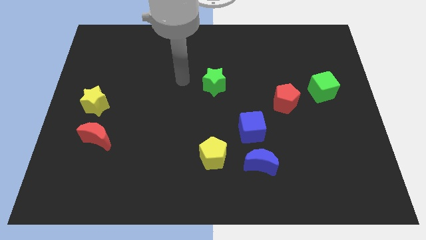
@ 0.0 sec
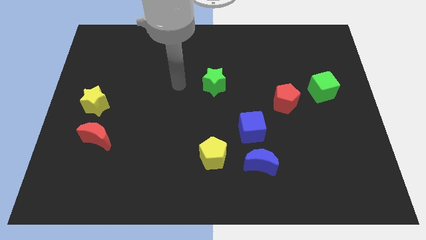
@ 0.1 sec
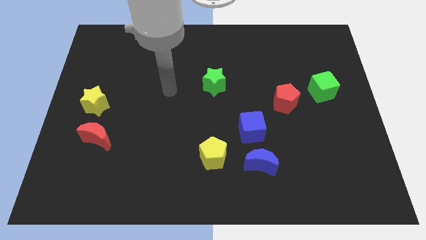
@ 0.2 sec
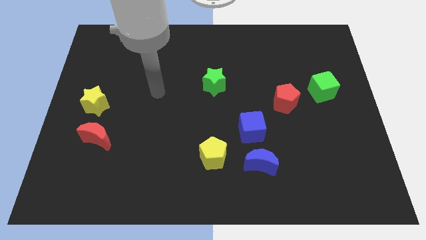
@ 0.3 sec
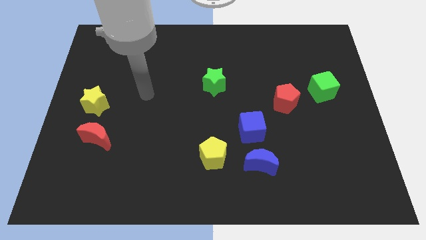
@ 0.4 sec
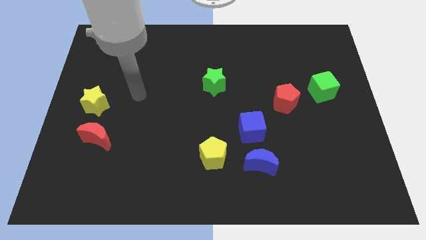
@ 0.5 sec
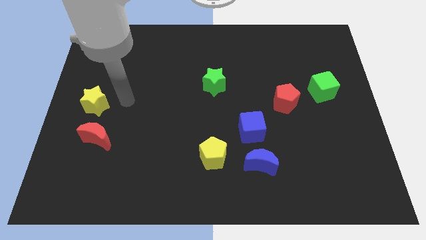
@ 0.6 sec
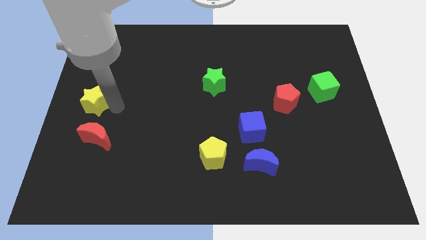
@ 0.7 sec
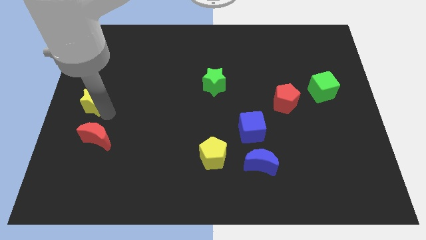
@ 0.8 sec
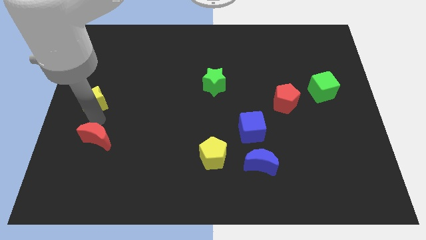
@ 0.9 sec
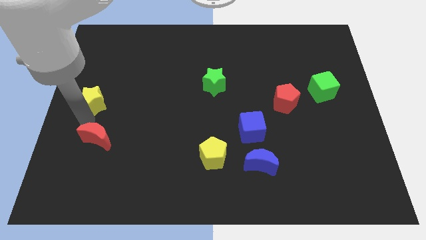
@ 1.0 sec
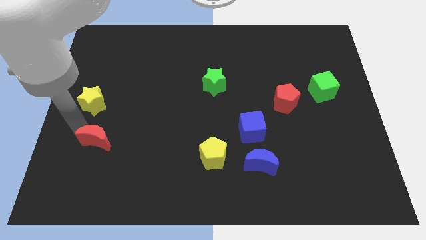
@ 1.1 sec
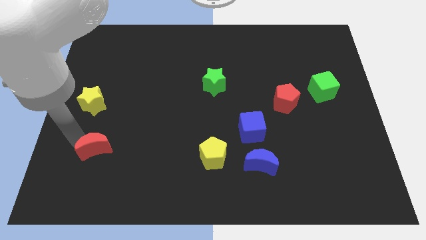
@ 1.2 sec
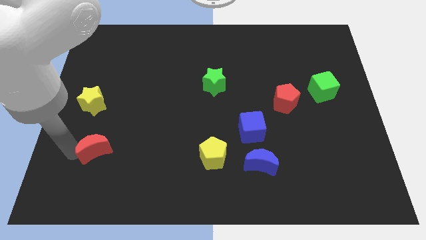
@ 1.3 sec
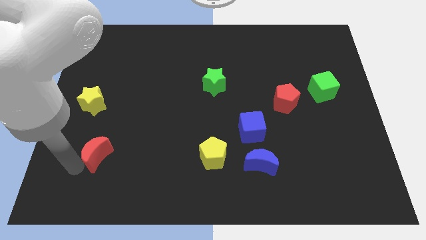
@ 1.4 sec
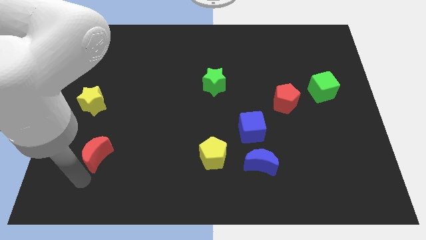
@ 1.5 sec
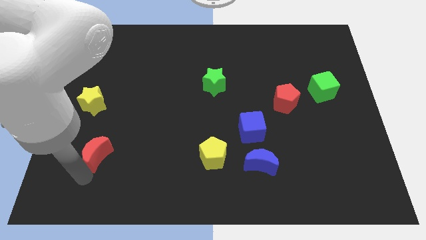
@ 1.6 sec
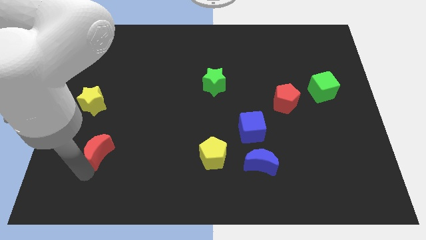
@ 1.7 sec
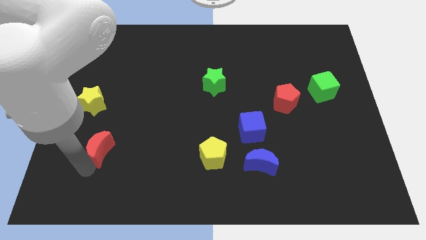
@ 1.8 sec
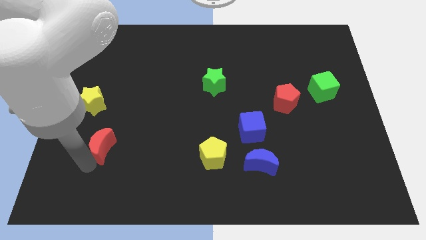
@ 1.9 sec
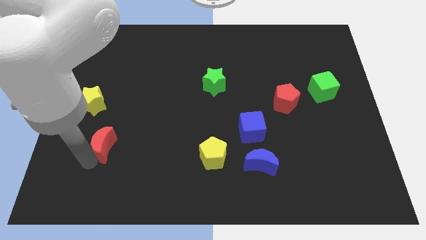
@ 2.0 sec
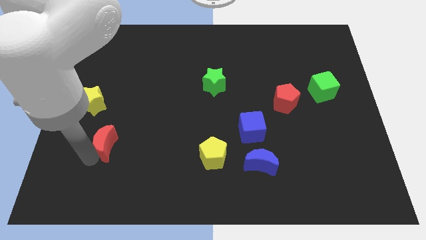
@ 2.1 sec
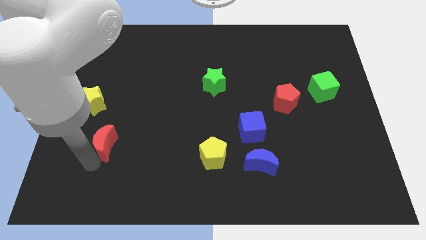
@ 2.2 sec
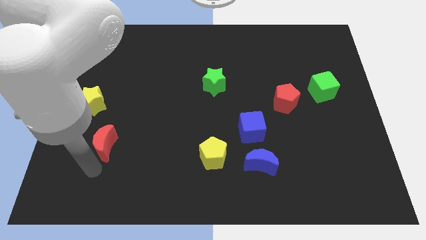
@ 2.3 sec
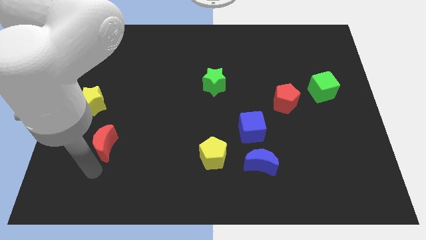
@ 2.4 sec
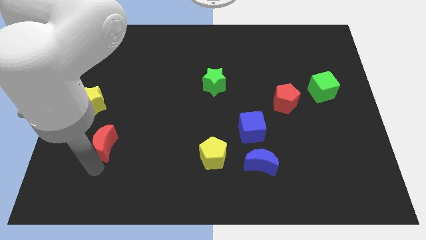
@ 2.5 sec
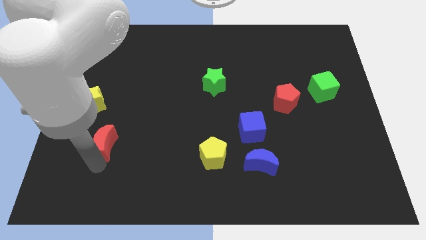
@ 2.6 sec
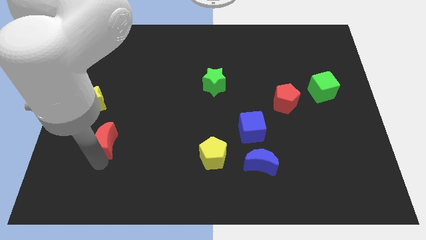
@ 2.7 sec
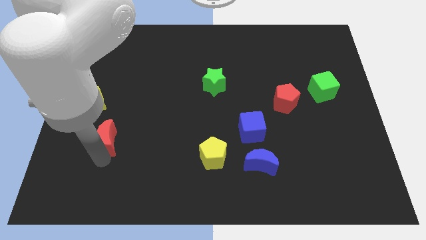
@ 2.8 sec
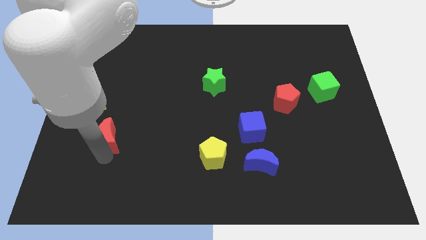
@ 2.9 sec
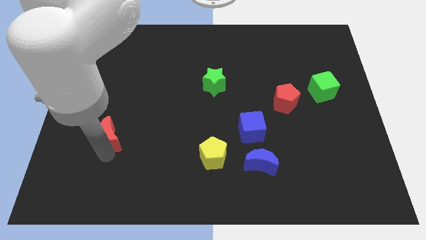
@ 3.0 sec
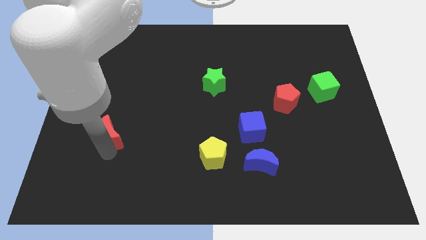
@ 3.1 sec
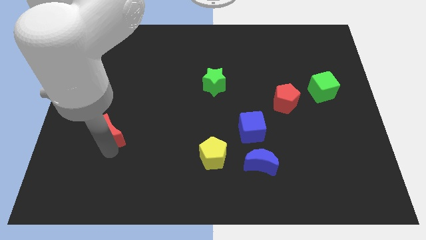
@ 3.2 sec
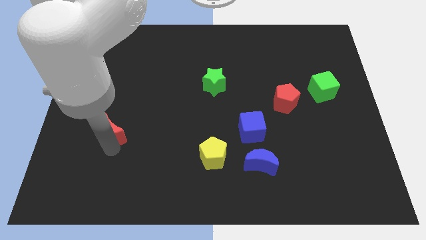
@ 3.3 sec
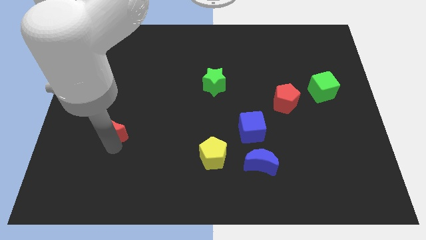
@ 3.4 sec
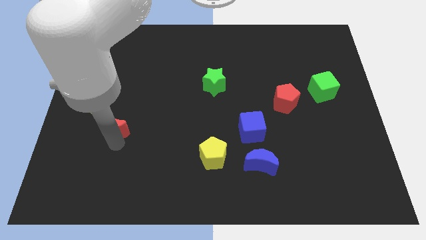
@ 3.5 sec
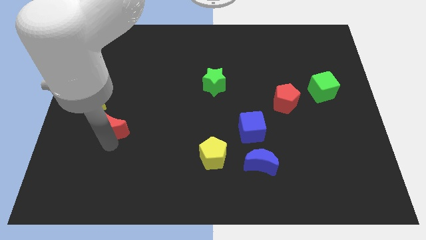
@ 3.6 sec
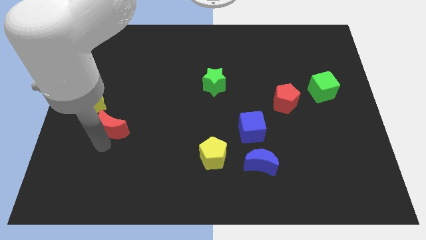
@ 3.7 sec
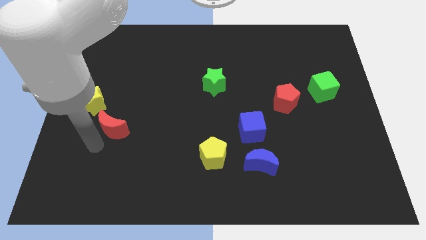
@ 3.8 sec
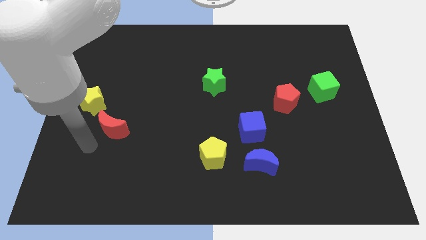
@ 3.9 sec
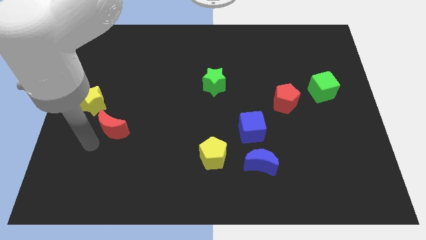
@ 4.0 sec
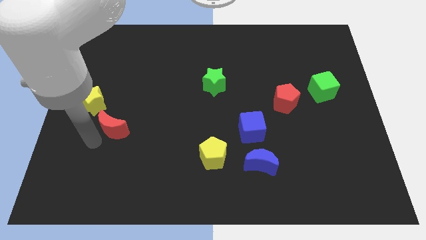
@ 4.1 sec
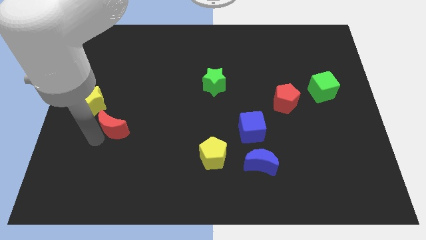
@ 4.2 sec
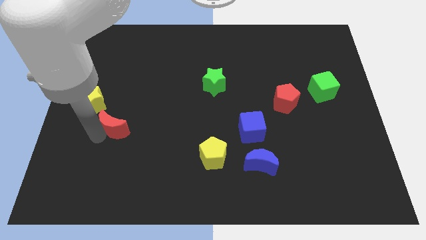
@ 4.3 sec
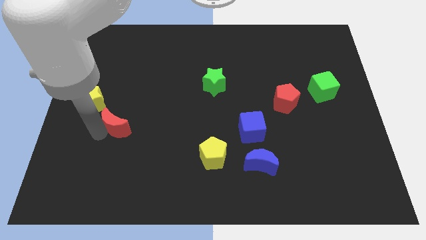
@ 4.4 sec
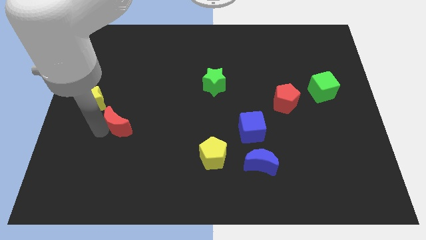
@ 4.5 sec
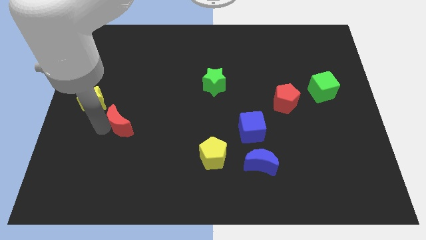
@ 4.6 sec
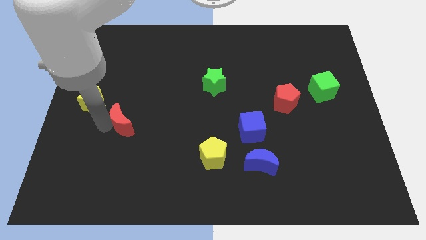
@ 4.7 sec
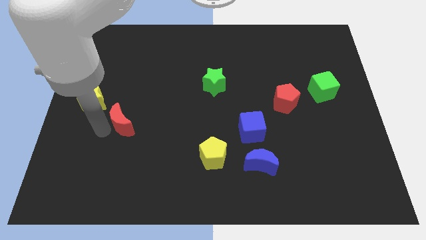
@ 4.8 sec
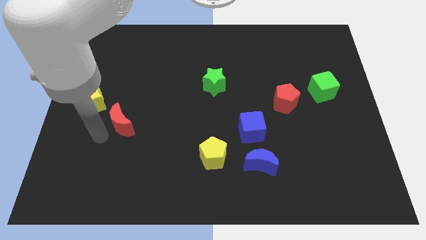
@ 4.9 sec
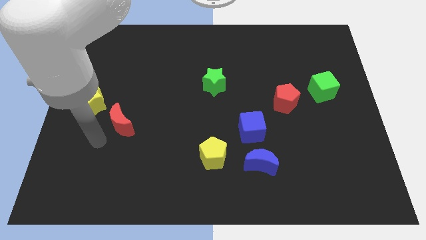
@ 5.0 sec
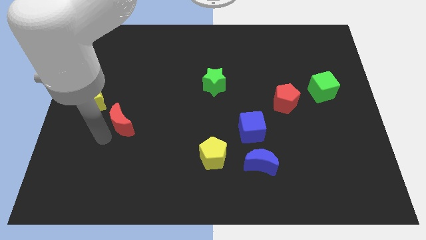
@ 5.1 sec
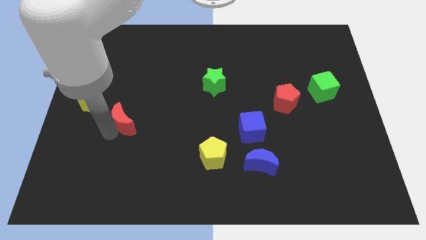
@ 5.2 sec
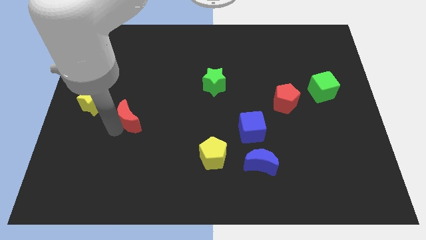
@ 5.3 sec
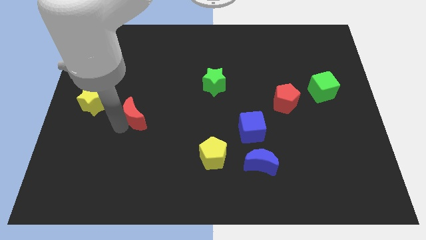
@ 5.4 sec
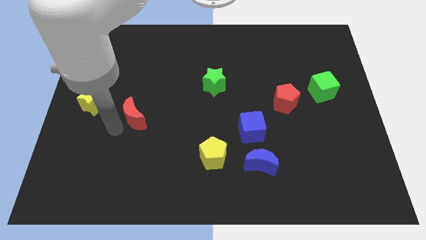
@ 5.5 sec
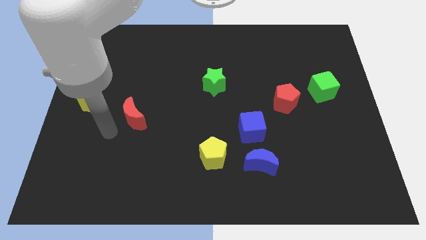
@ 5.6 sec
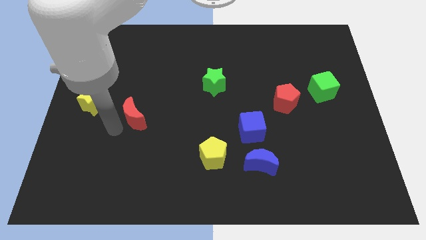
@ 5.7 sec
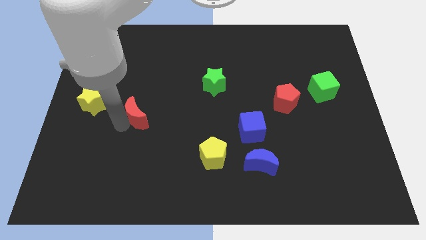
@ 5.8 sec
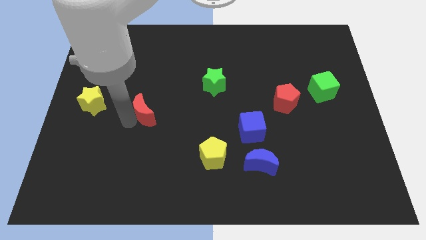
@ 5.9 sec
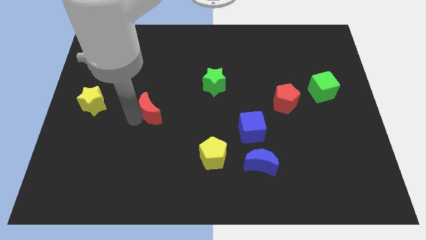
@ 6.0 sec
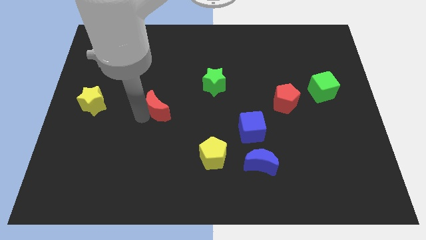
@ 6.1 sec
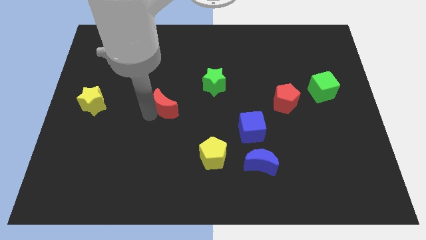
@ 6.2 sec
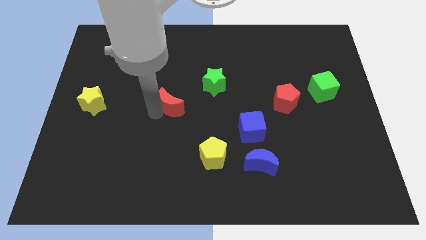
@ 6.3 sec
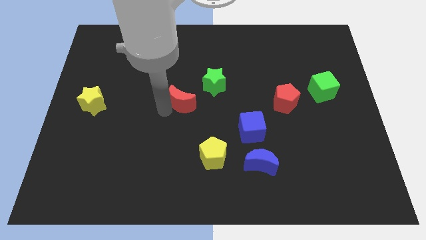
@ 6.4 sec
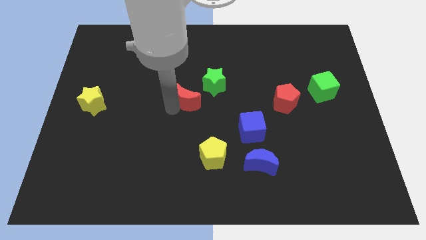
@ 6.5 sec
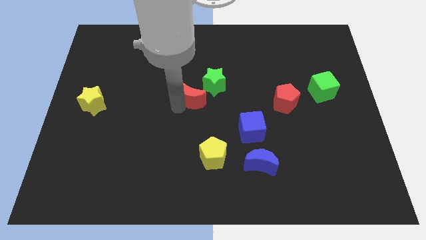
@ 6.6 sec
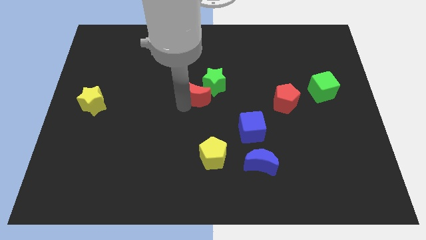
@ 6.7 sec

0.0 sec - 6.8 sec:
slide the red moon close to the green star

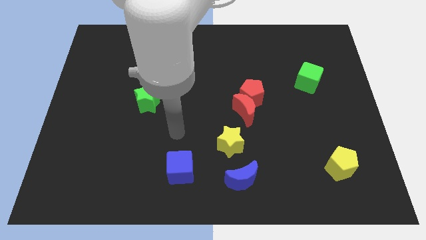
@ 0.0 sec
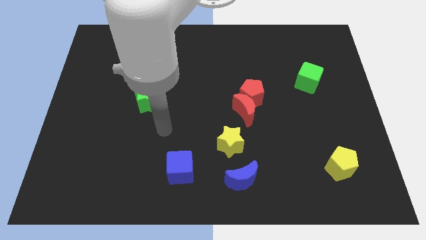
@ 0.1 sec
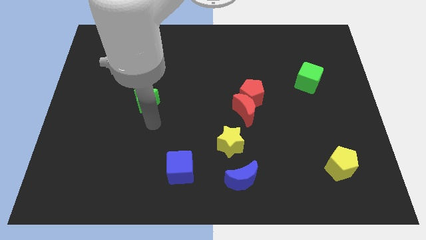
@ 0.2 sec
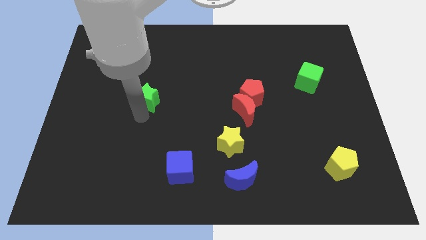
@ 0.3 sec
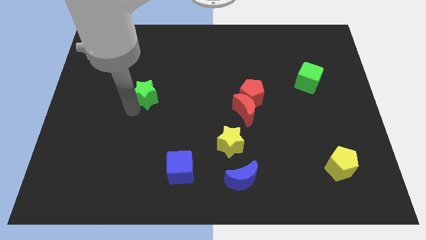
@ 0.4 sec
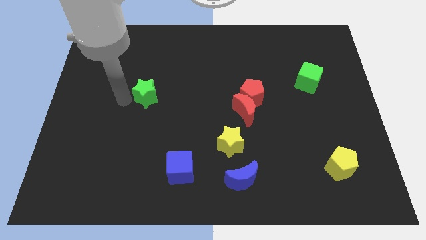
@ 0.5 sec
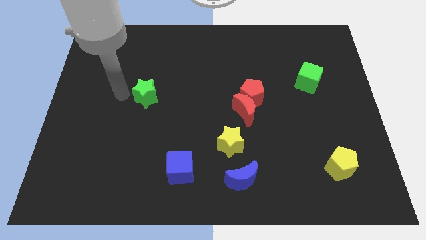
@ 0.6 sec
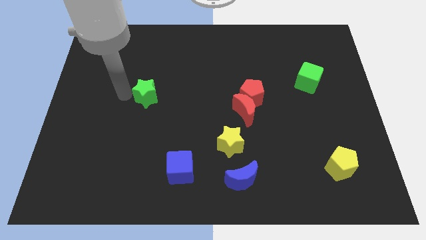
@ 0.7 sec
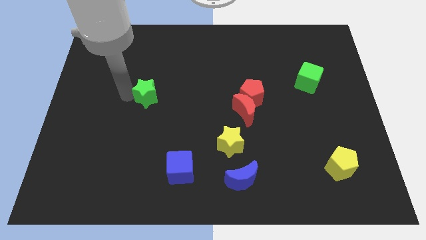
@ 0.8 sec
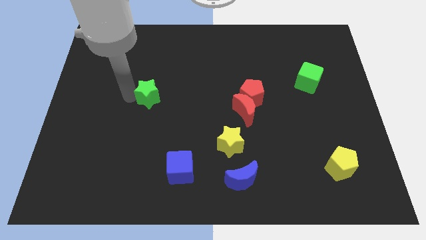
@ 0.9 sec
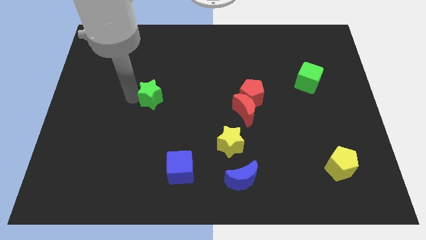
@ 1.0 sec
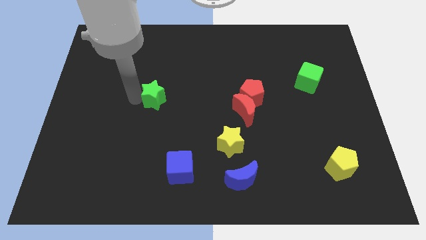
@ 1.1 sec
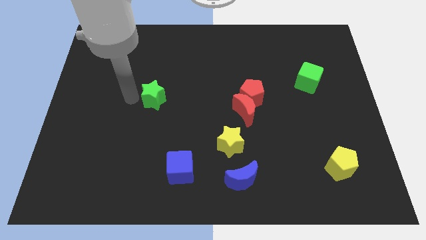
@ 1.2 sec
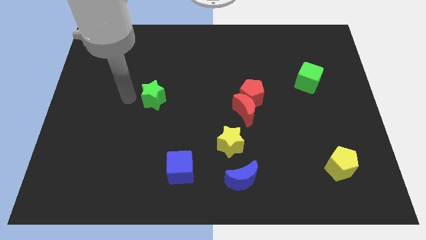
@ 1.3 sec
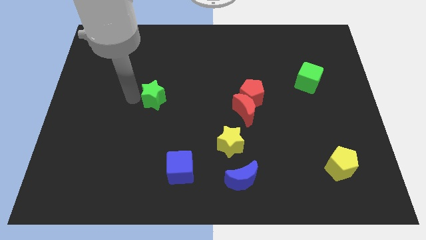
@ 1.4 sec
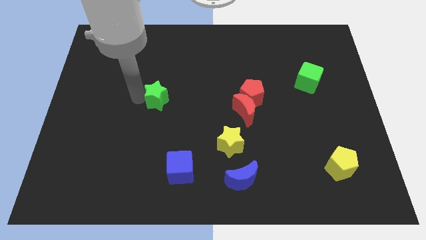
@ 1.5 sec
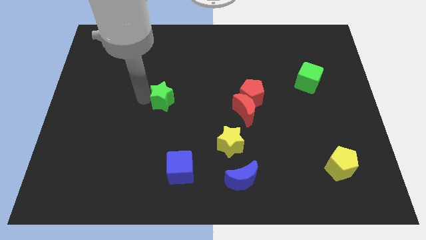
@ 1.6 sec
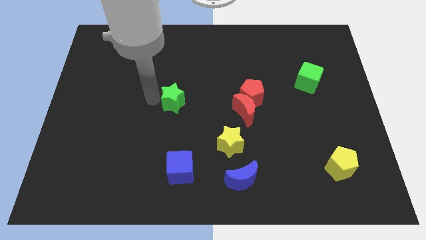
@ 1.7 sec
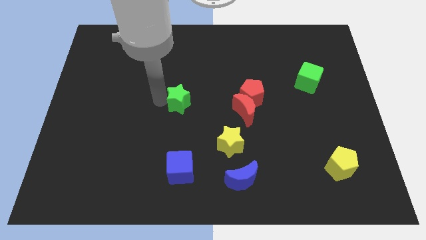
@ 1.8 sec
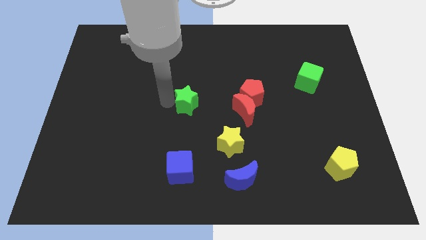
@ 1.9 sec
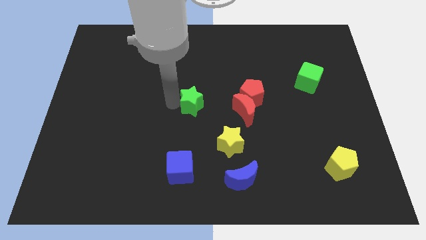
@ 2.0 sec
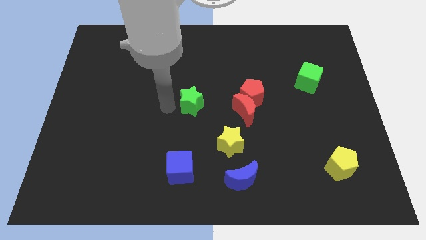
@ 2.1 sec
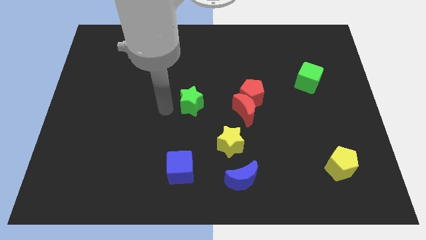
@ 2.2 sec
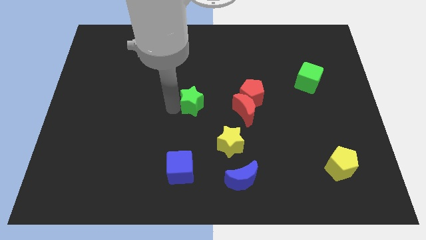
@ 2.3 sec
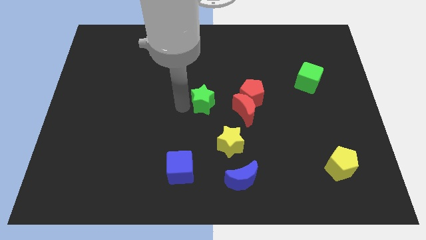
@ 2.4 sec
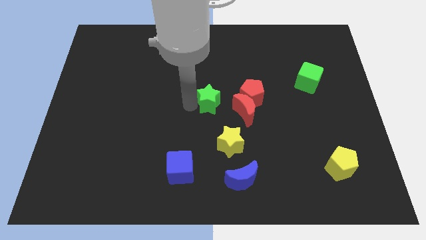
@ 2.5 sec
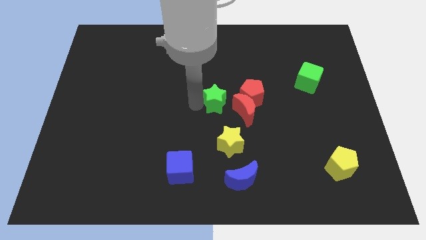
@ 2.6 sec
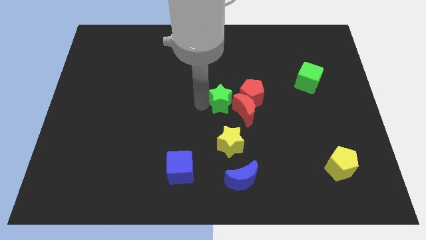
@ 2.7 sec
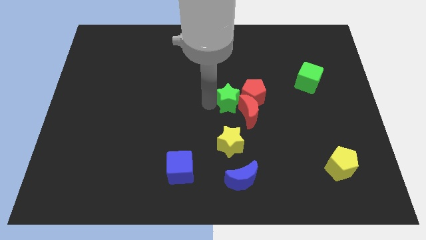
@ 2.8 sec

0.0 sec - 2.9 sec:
move the green star next to the red pentagon
